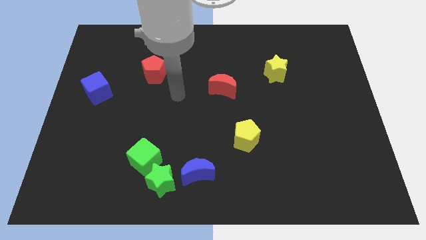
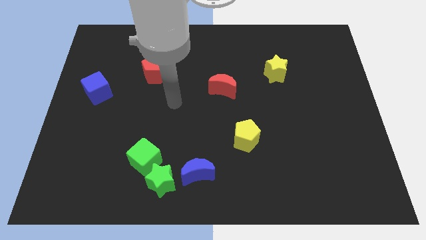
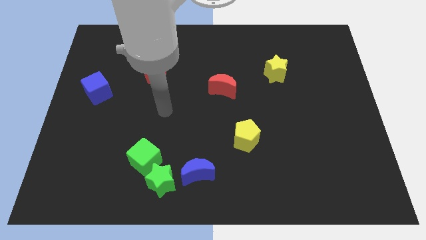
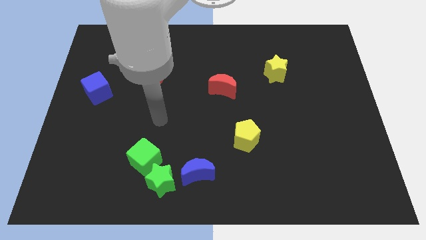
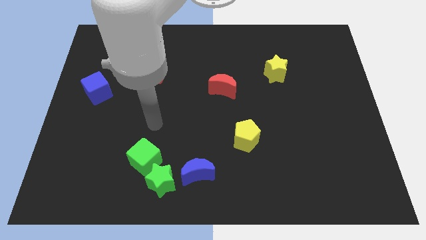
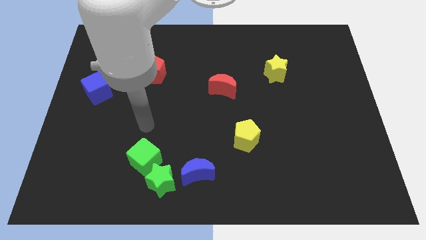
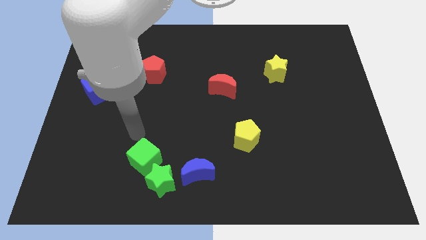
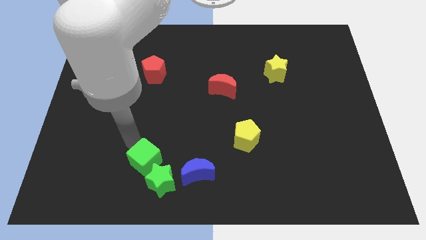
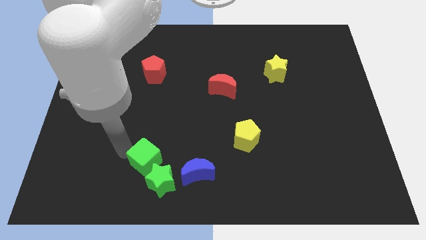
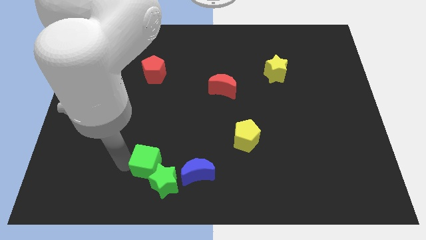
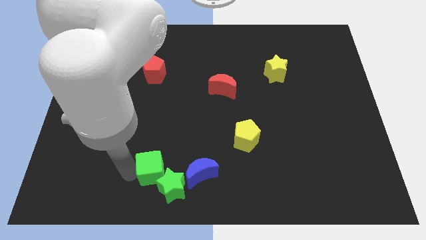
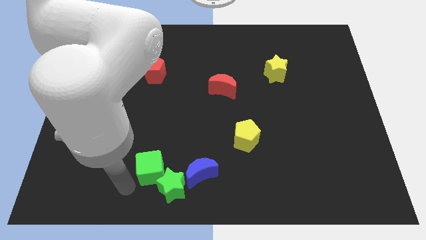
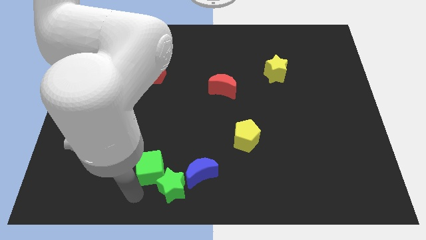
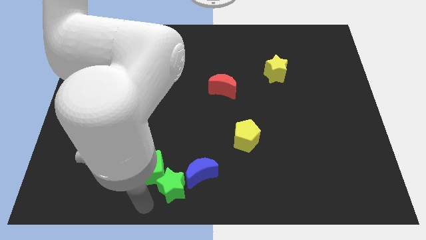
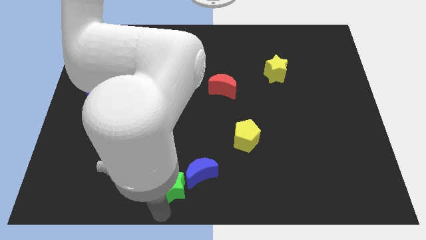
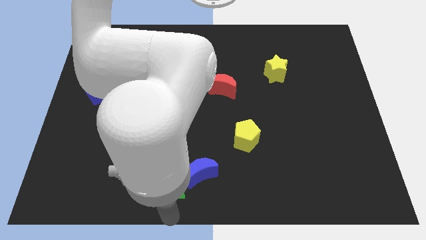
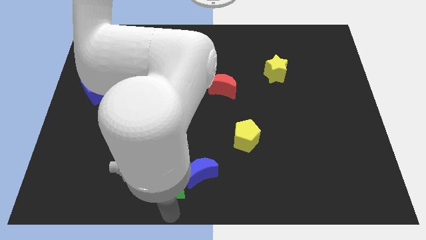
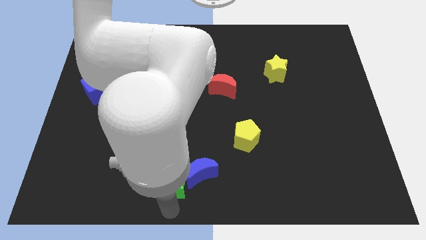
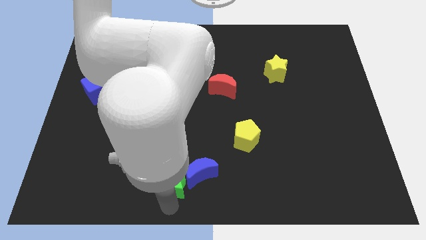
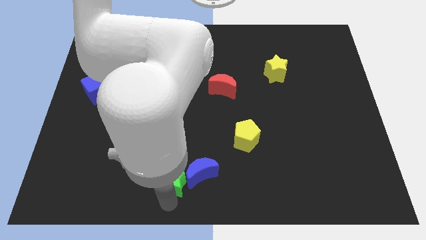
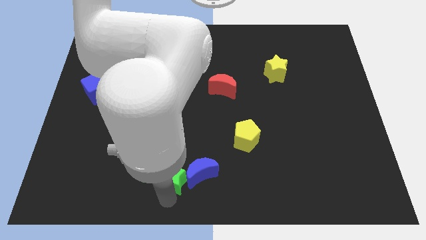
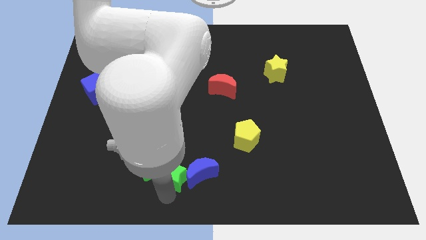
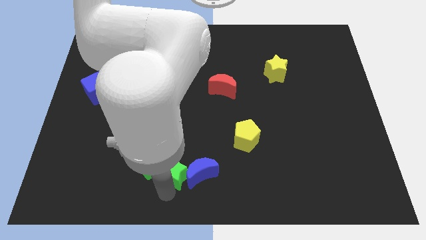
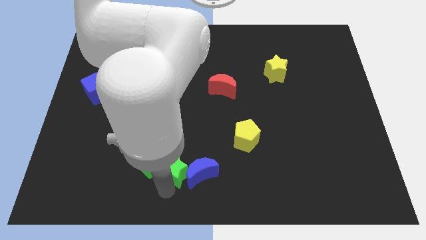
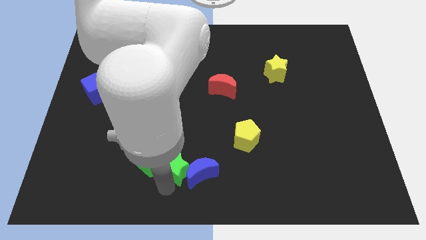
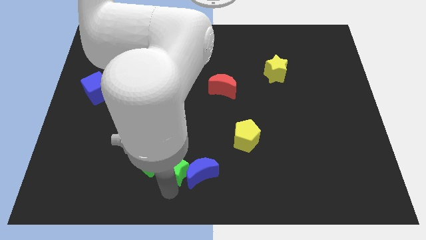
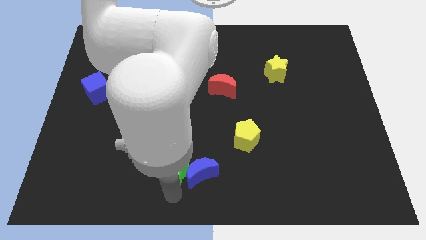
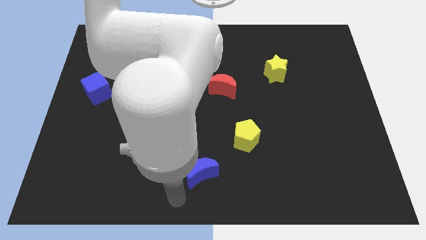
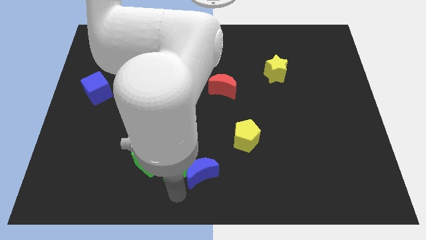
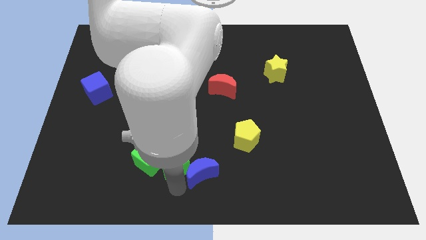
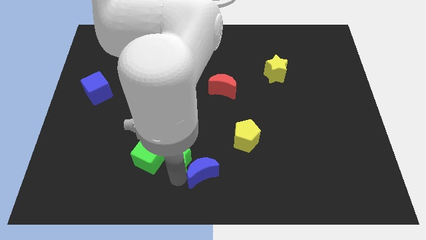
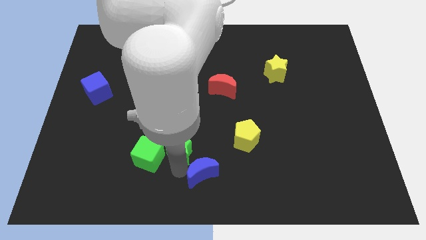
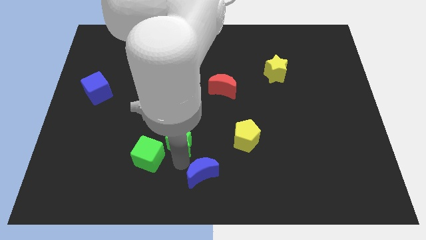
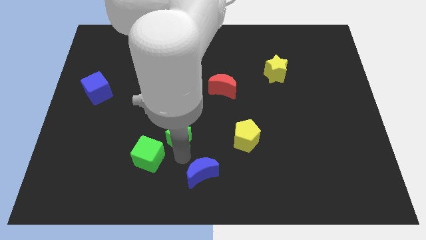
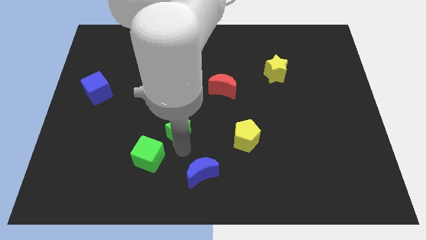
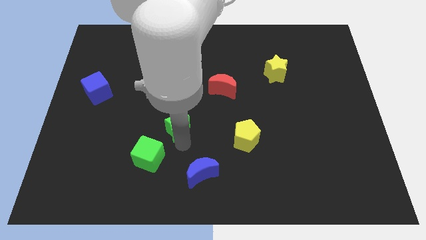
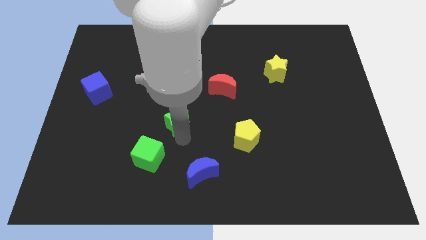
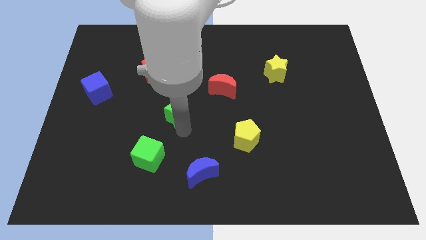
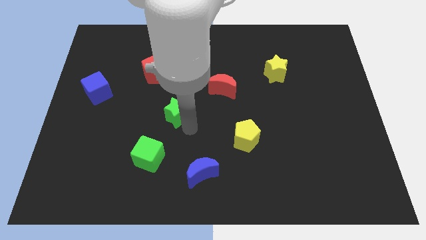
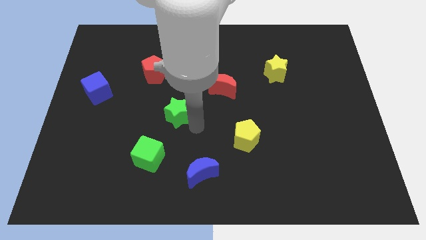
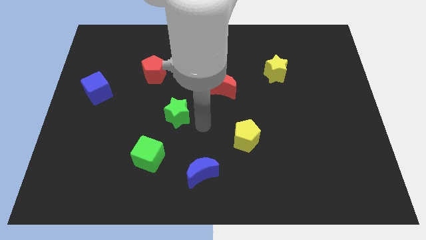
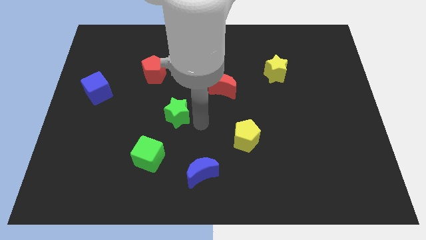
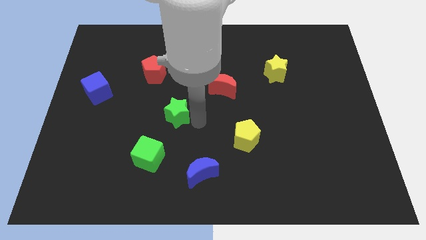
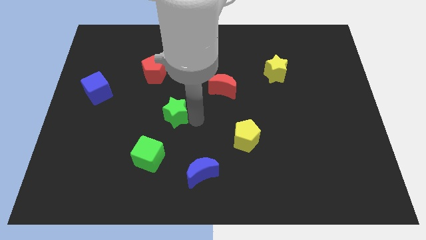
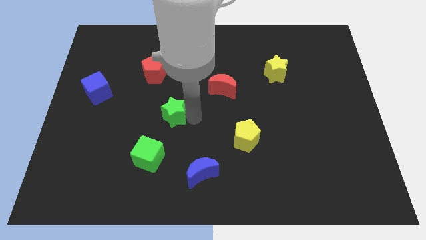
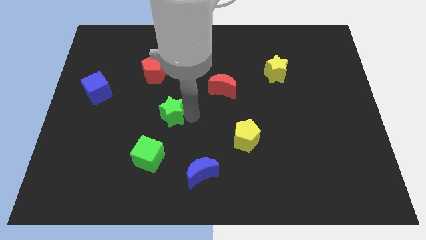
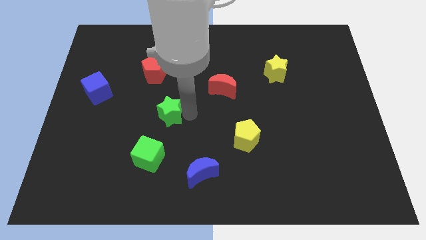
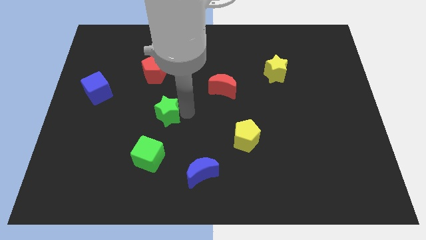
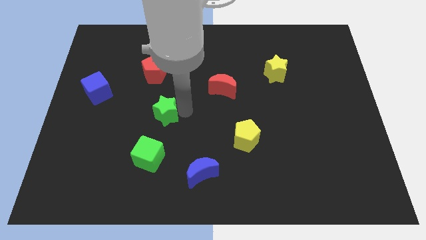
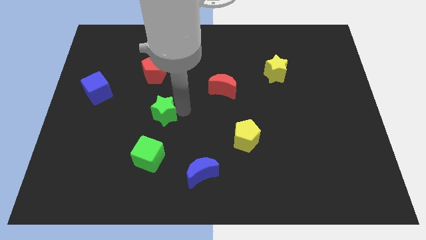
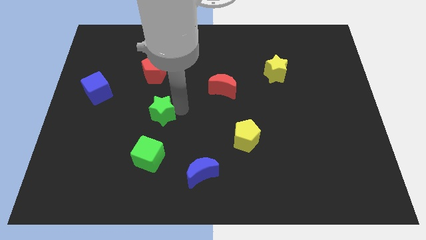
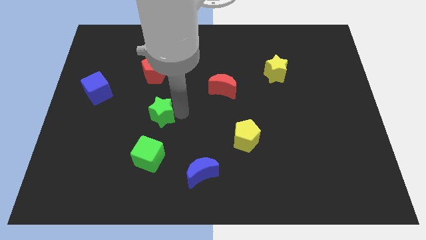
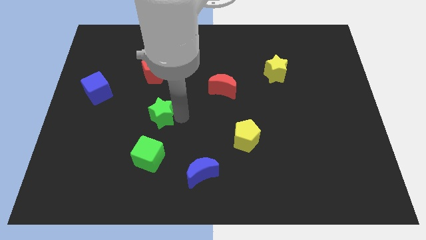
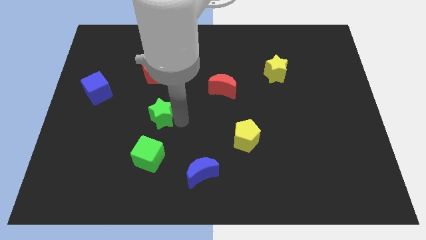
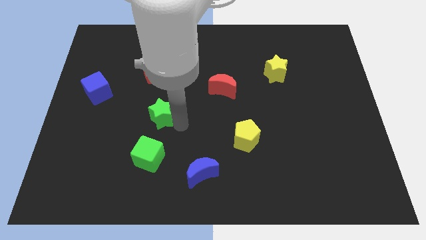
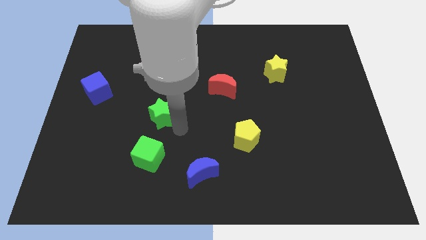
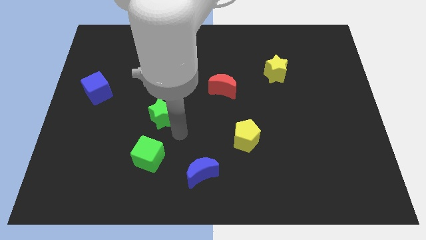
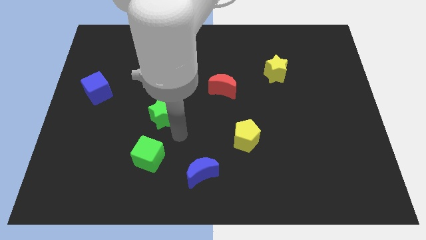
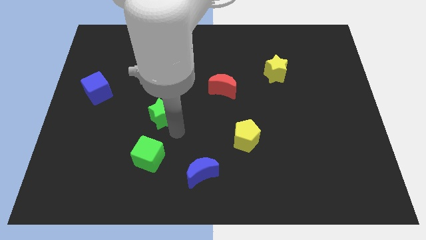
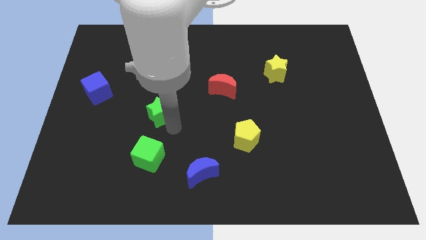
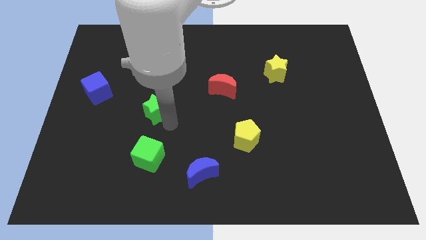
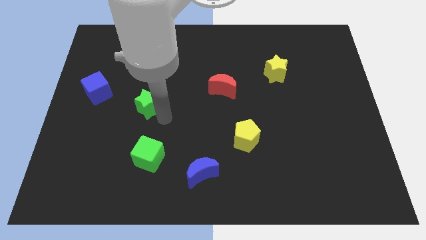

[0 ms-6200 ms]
move the green star just right of the blue cube

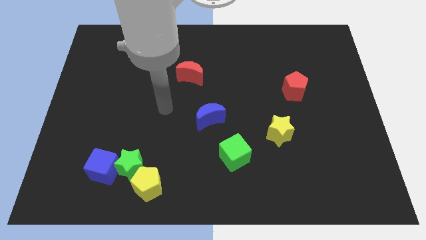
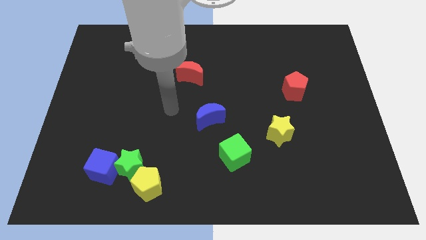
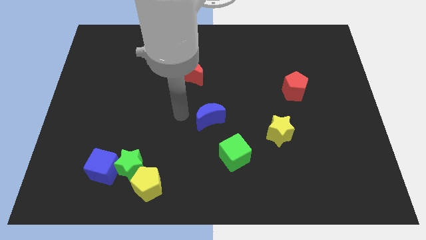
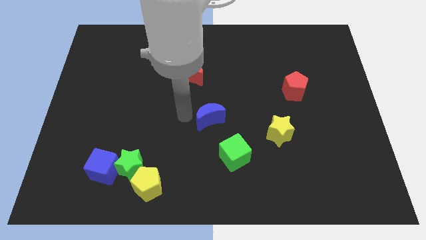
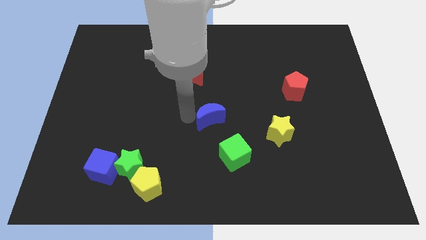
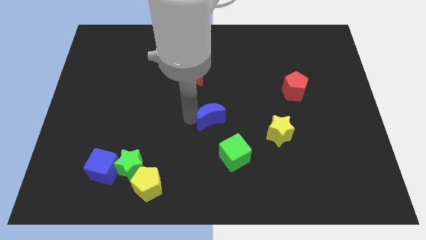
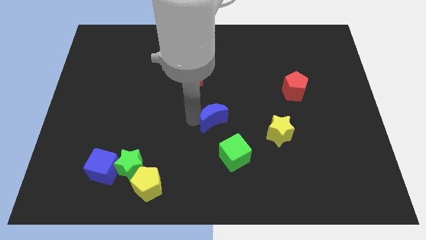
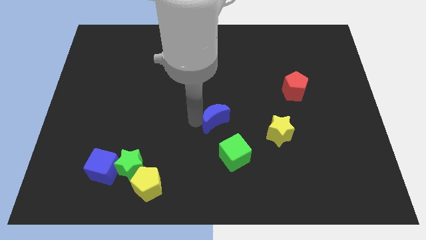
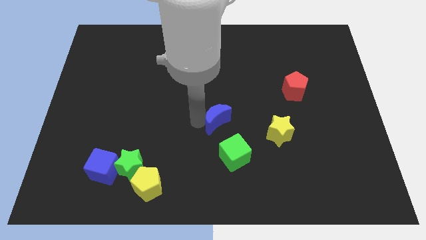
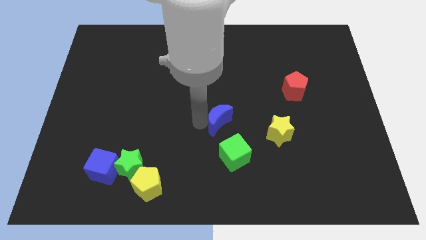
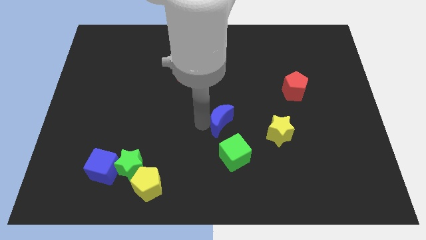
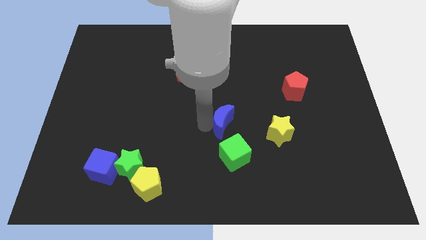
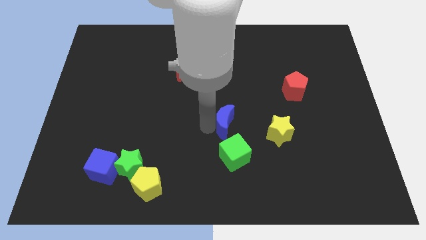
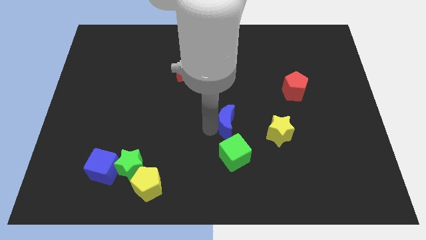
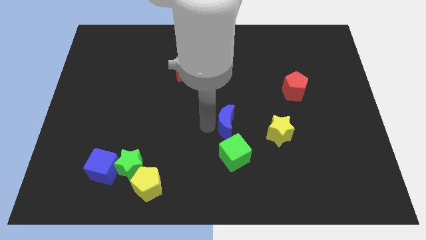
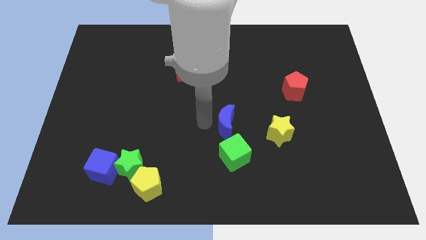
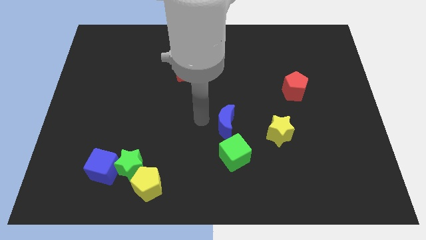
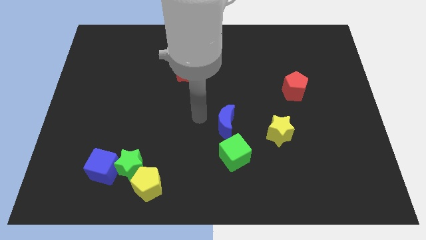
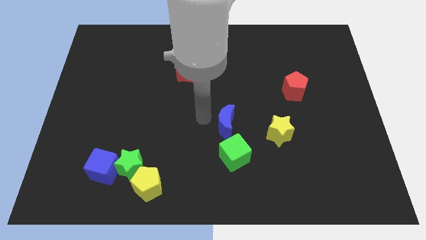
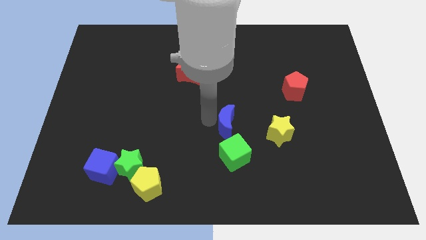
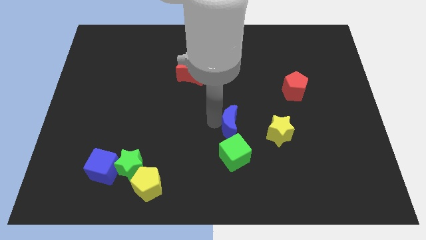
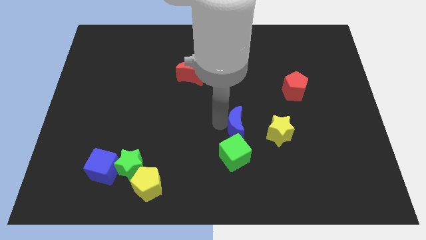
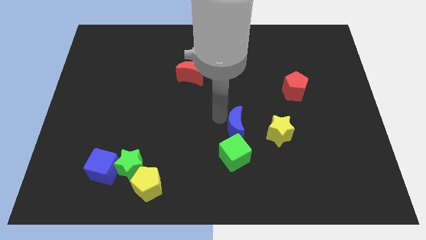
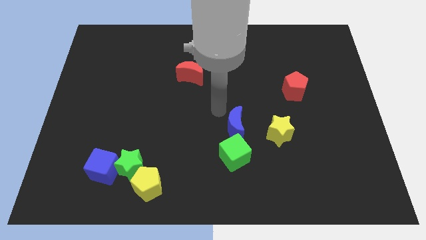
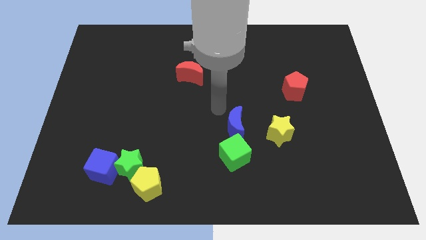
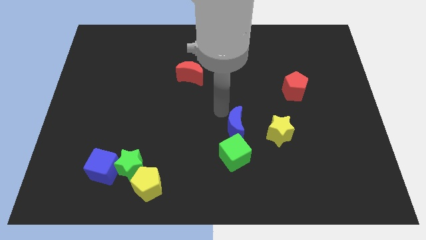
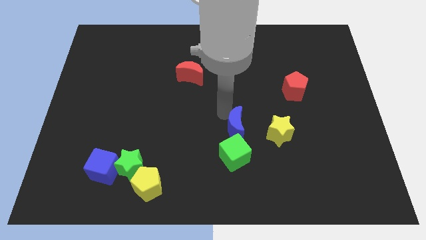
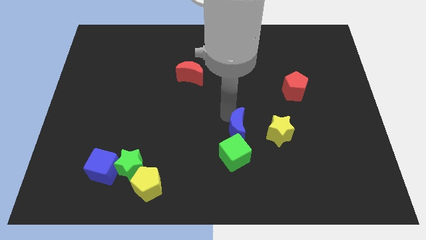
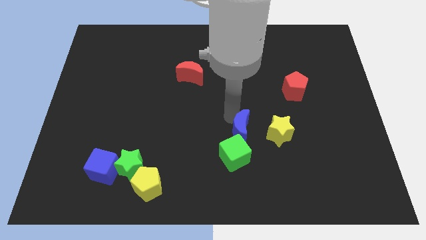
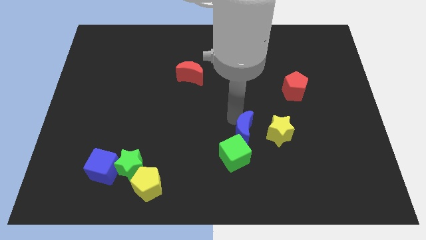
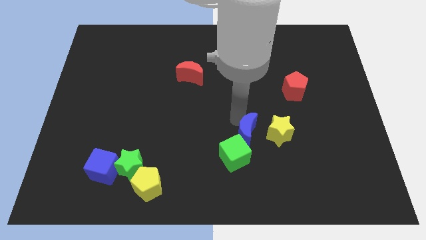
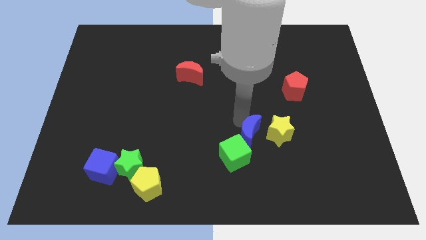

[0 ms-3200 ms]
push the blue moon diagonally down and to the left of the yellow star
